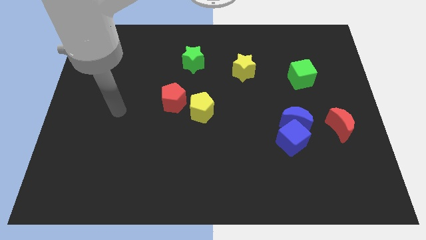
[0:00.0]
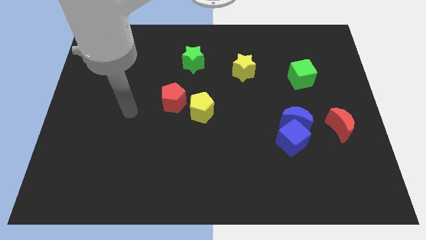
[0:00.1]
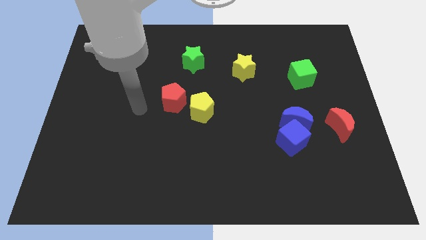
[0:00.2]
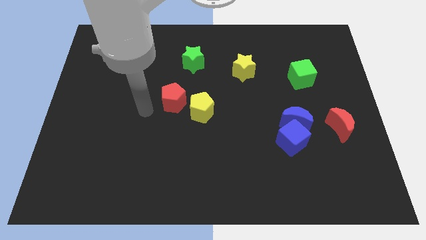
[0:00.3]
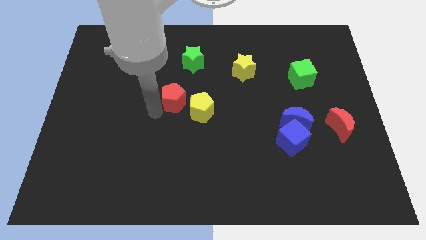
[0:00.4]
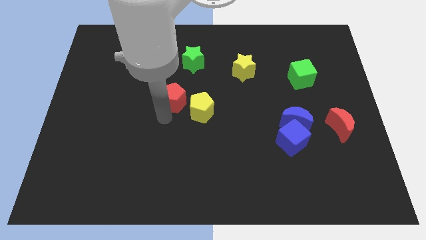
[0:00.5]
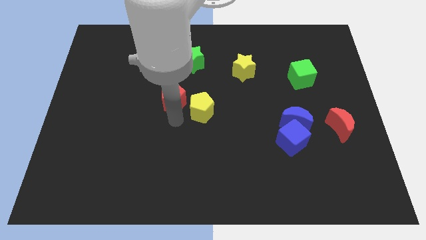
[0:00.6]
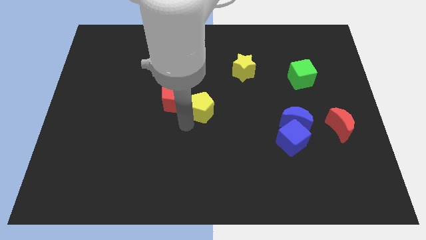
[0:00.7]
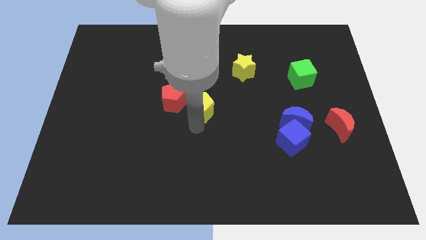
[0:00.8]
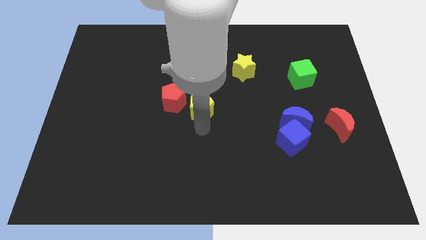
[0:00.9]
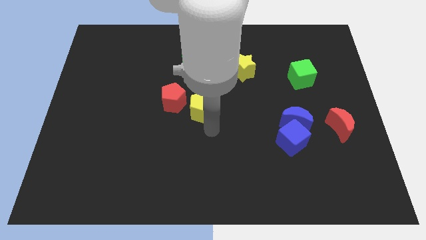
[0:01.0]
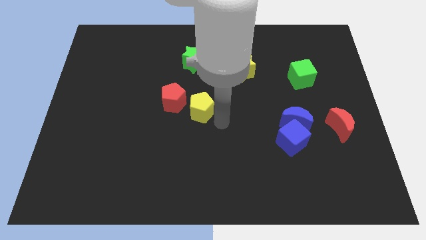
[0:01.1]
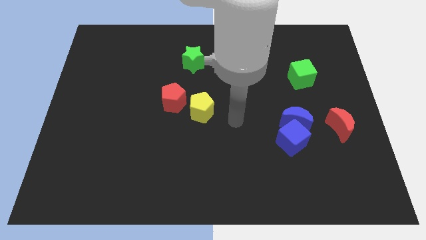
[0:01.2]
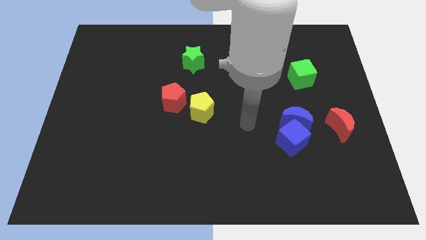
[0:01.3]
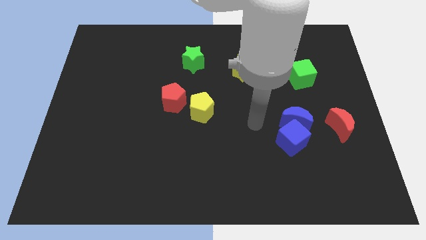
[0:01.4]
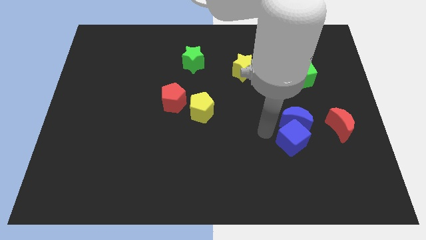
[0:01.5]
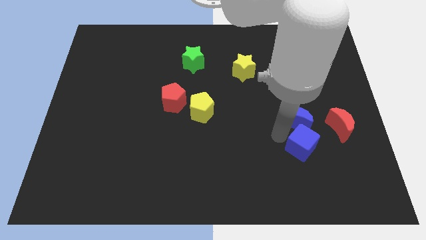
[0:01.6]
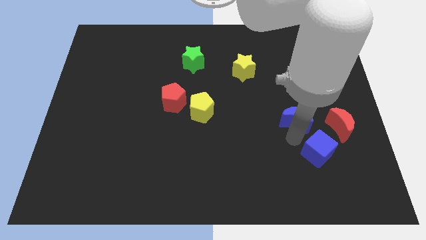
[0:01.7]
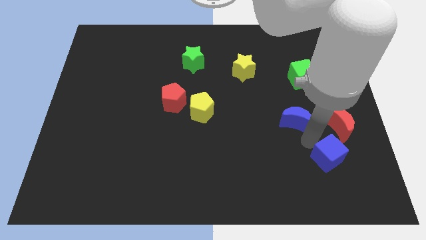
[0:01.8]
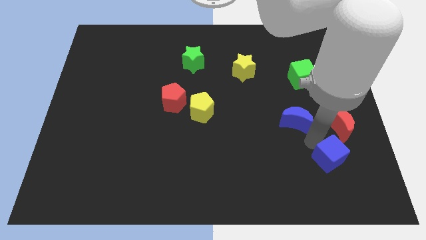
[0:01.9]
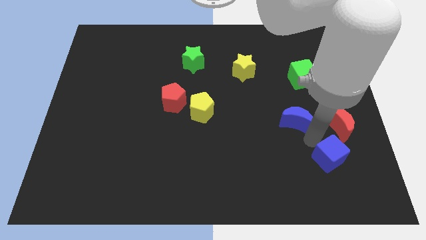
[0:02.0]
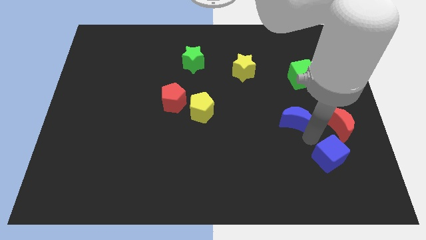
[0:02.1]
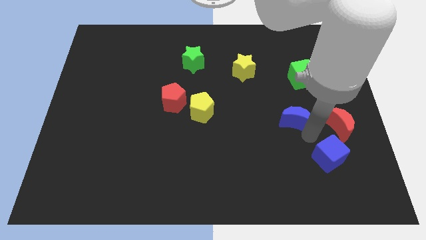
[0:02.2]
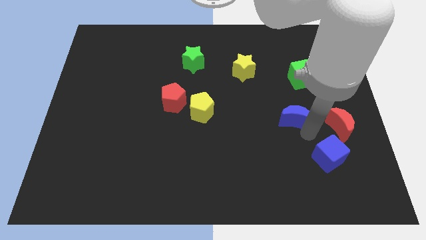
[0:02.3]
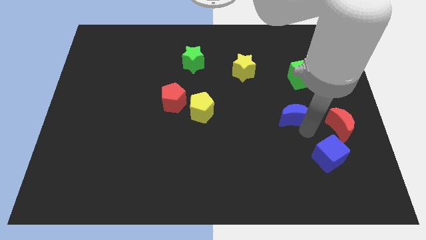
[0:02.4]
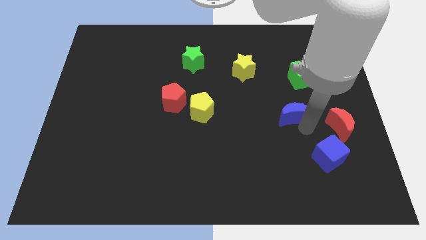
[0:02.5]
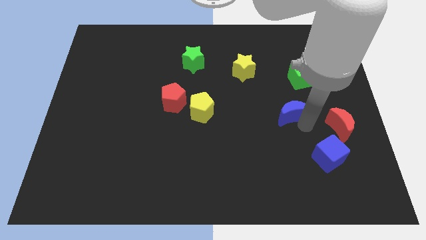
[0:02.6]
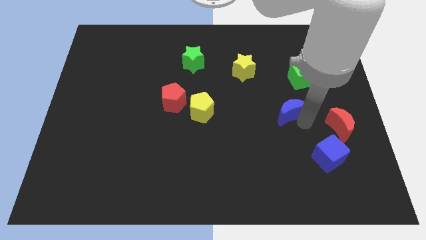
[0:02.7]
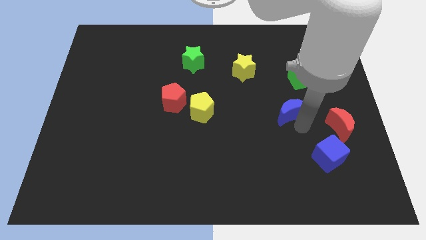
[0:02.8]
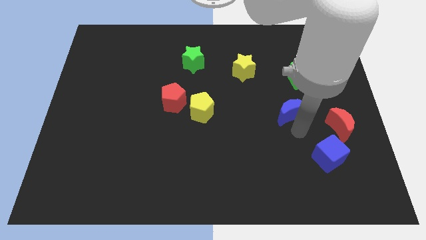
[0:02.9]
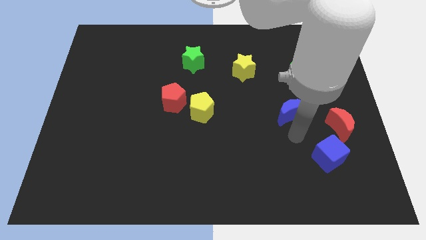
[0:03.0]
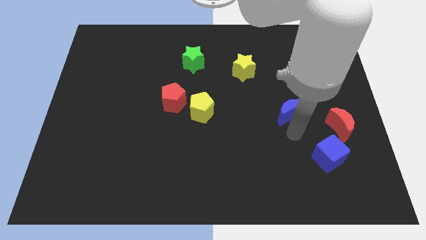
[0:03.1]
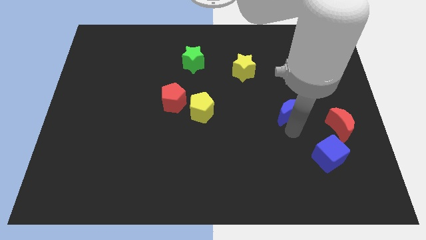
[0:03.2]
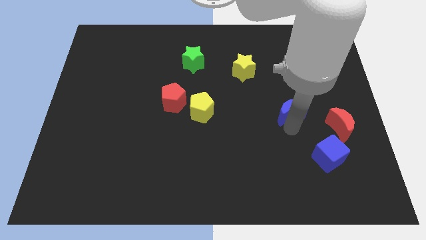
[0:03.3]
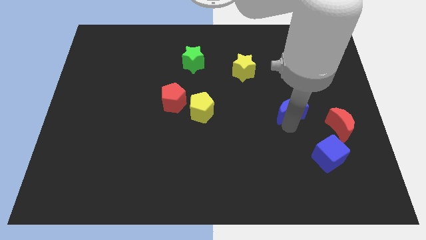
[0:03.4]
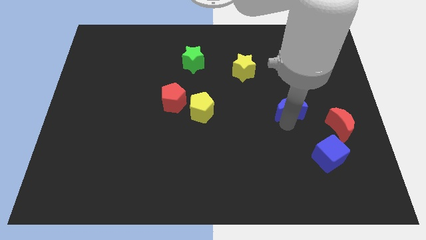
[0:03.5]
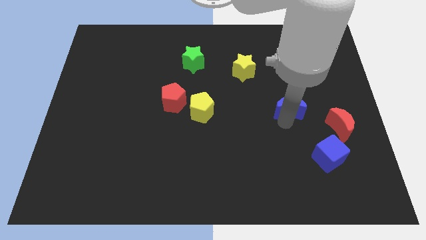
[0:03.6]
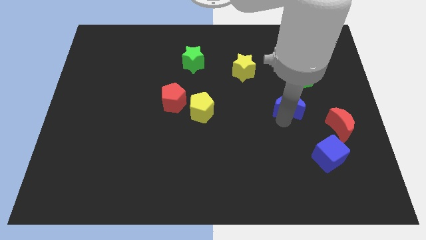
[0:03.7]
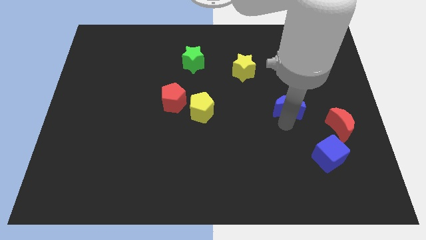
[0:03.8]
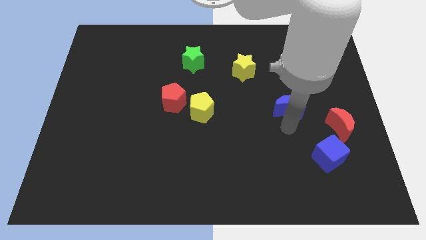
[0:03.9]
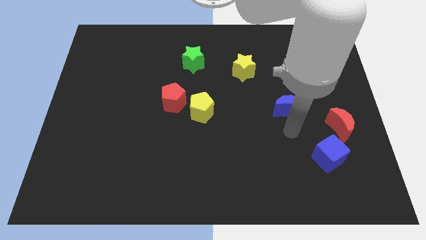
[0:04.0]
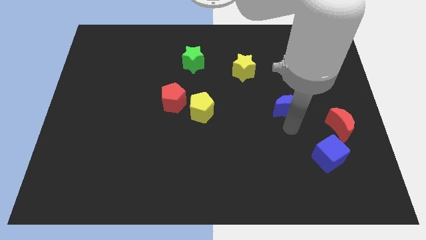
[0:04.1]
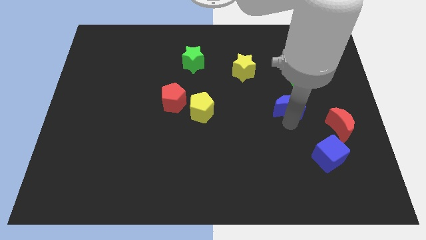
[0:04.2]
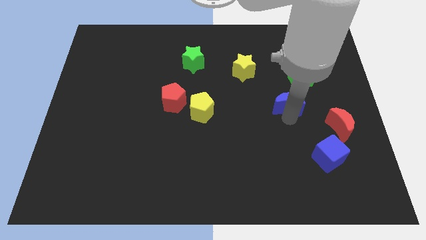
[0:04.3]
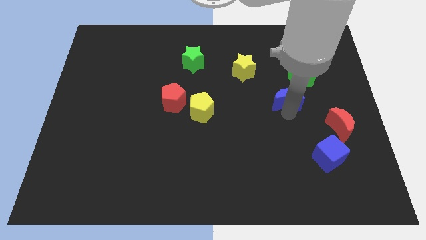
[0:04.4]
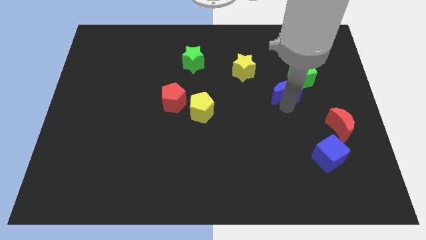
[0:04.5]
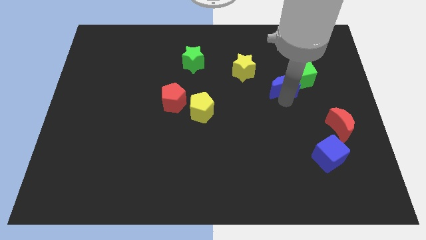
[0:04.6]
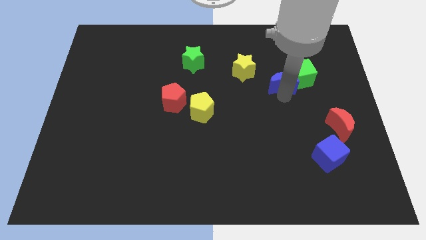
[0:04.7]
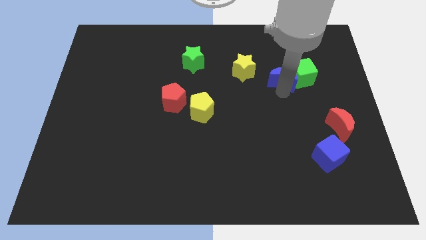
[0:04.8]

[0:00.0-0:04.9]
slide the blue moon to the top left side of the green cube

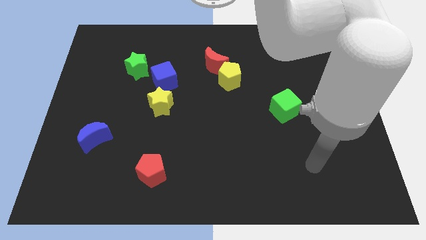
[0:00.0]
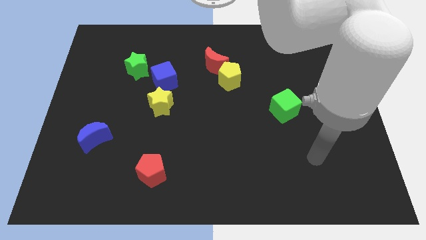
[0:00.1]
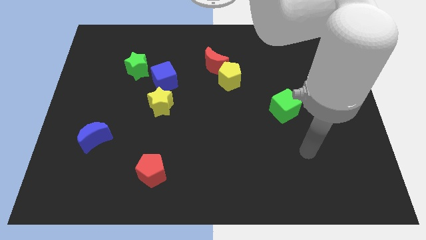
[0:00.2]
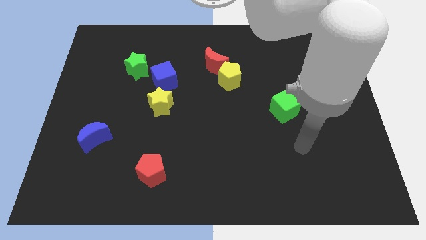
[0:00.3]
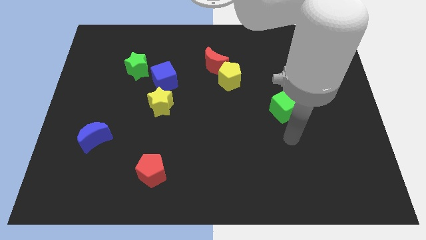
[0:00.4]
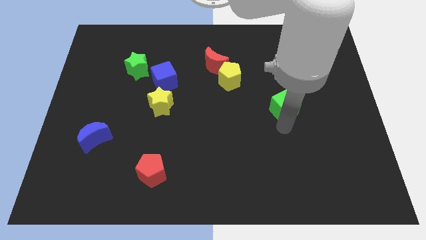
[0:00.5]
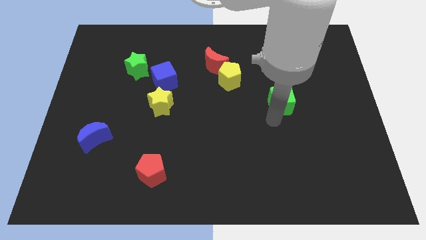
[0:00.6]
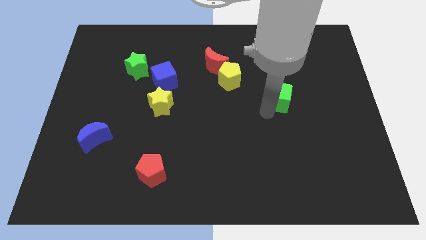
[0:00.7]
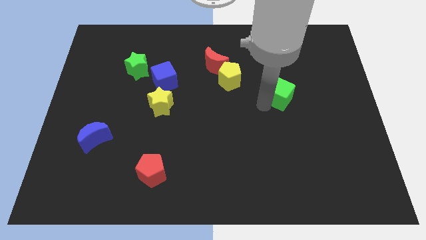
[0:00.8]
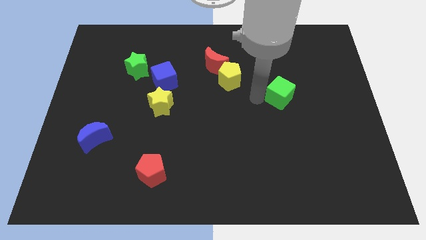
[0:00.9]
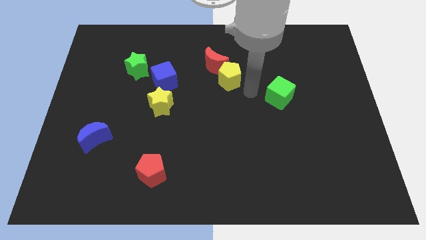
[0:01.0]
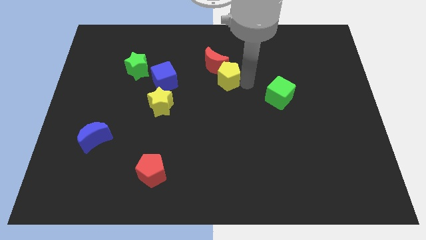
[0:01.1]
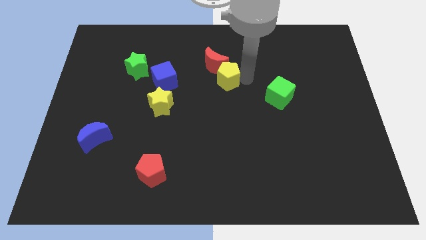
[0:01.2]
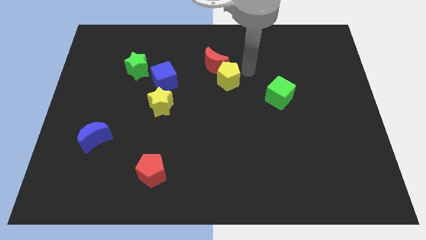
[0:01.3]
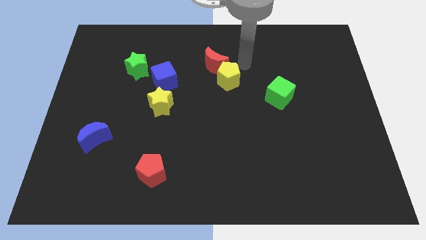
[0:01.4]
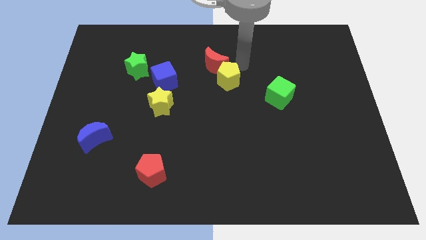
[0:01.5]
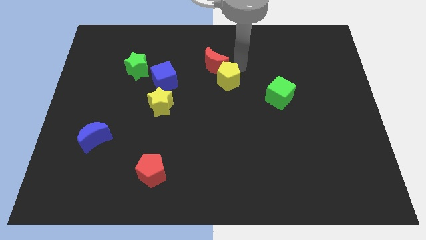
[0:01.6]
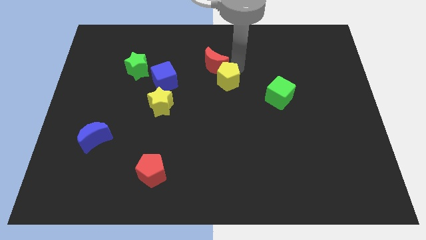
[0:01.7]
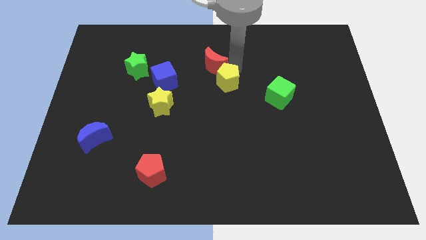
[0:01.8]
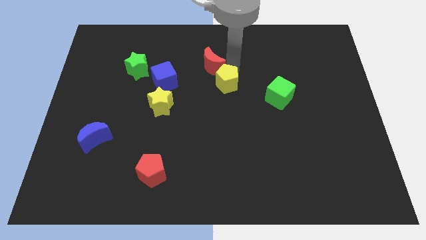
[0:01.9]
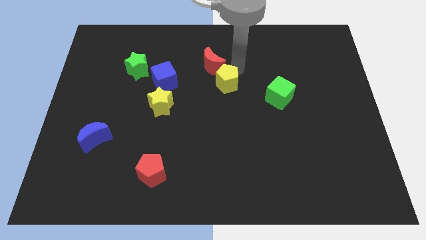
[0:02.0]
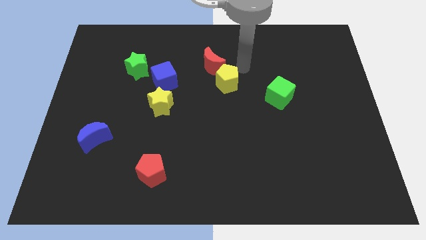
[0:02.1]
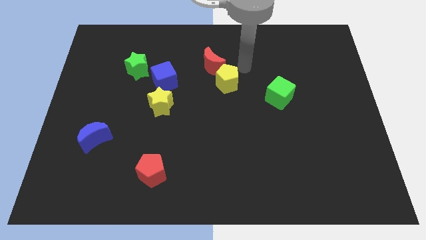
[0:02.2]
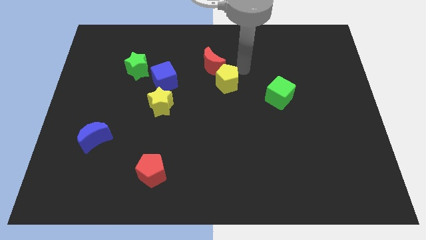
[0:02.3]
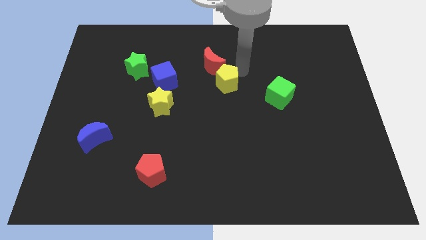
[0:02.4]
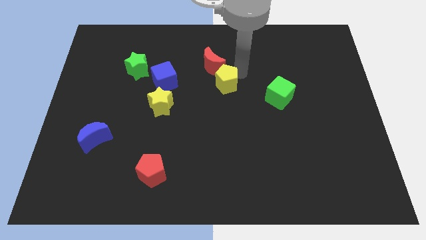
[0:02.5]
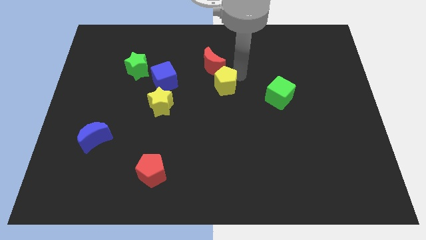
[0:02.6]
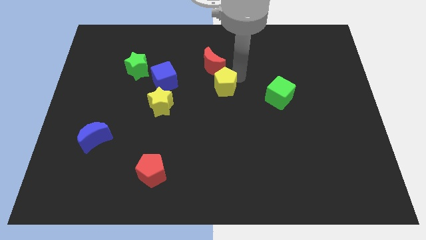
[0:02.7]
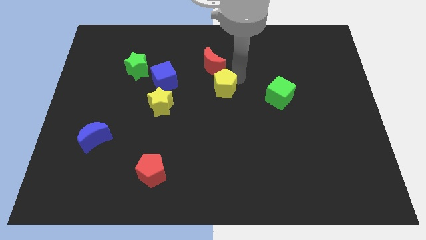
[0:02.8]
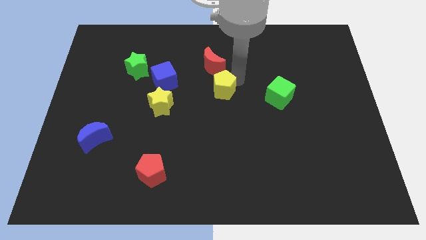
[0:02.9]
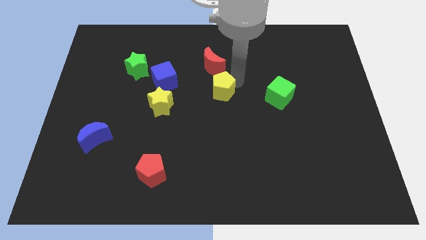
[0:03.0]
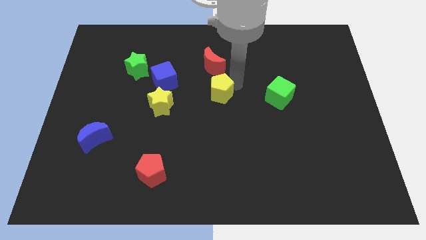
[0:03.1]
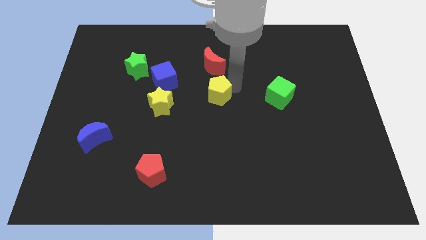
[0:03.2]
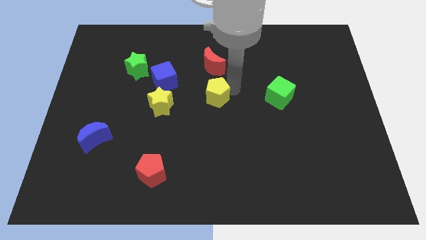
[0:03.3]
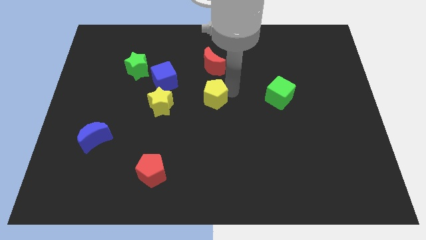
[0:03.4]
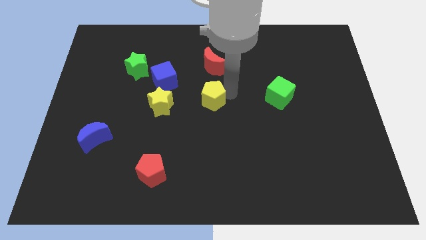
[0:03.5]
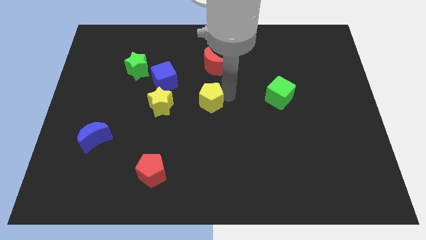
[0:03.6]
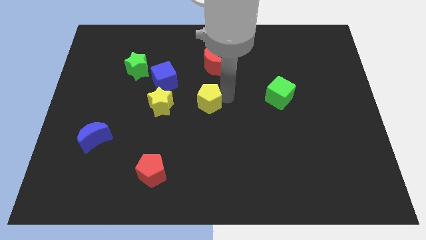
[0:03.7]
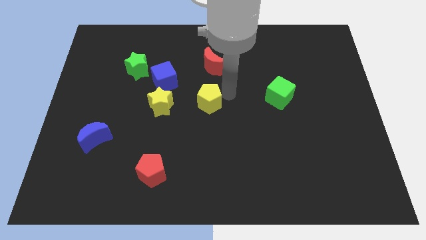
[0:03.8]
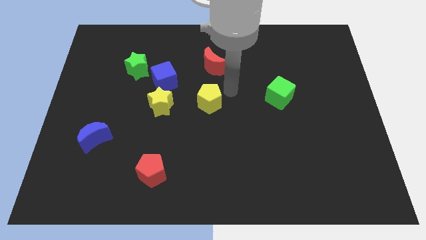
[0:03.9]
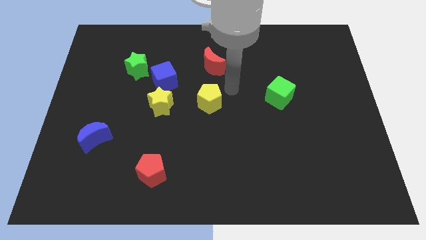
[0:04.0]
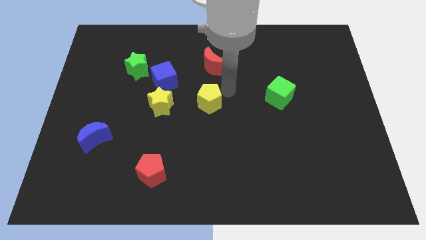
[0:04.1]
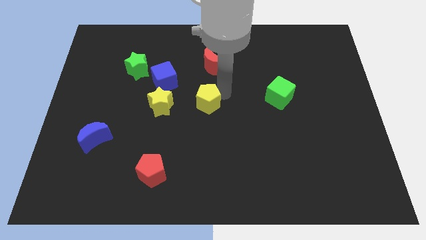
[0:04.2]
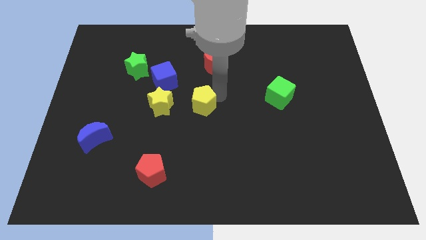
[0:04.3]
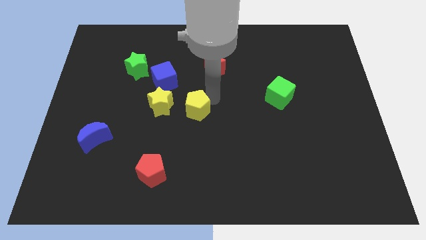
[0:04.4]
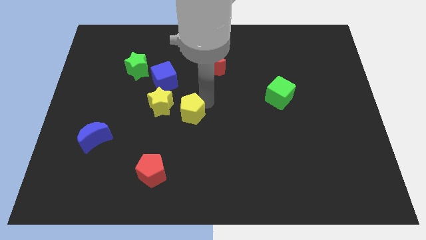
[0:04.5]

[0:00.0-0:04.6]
move the yellow pentagon to the bottom right of the yellow star
